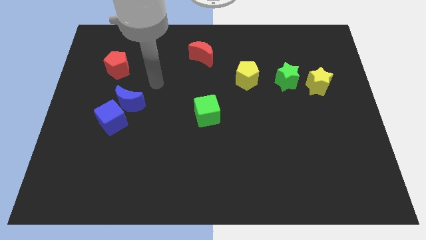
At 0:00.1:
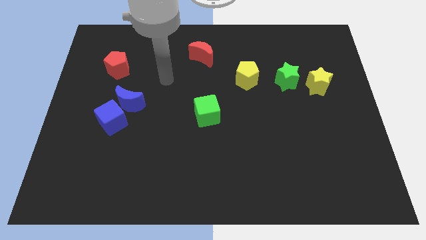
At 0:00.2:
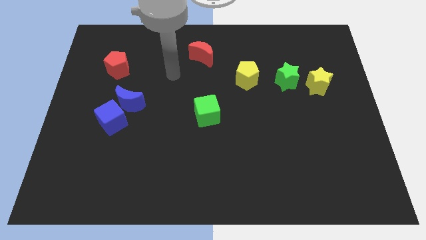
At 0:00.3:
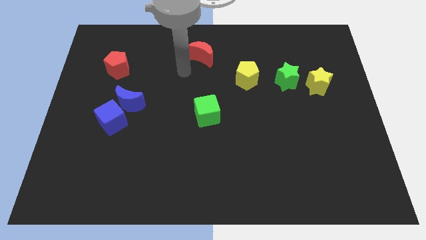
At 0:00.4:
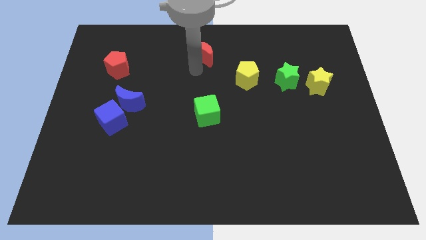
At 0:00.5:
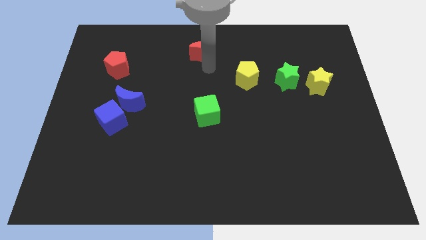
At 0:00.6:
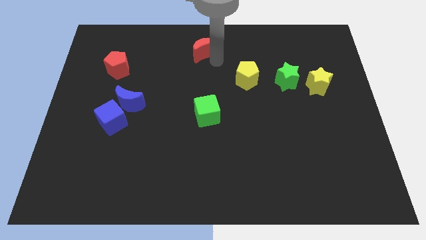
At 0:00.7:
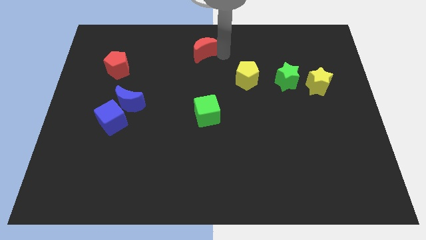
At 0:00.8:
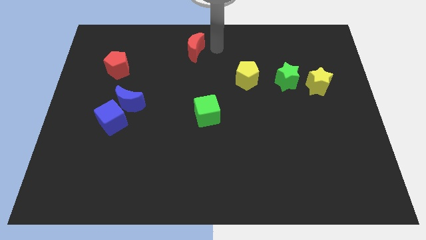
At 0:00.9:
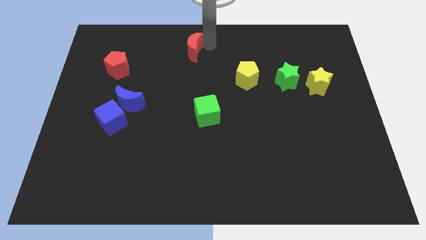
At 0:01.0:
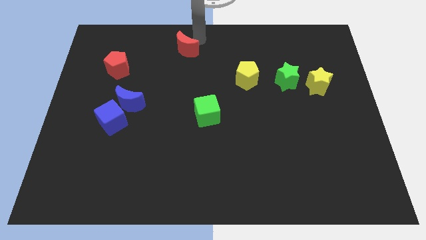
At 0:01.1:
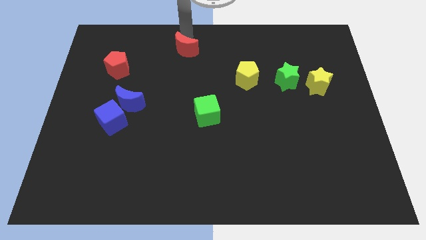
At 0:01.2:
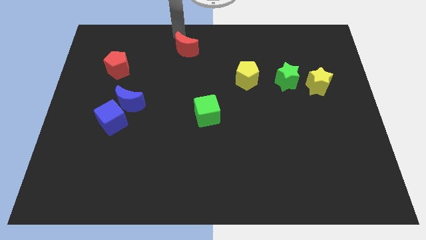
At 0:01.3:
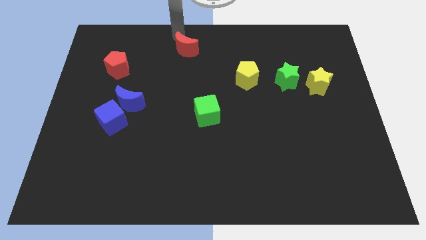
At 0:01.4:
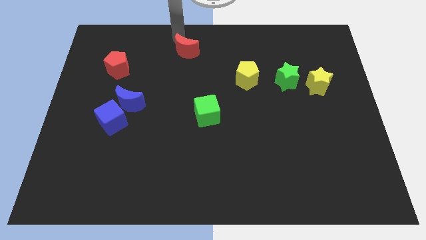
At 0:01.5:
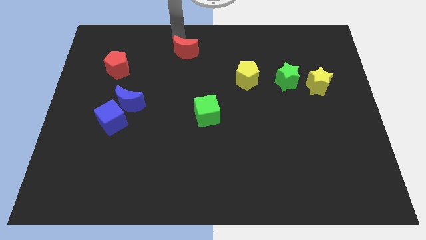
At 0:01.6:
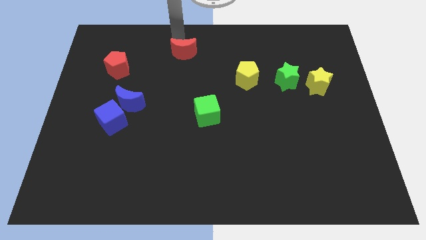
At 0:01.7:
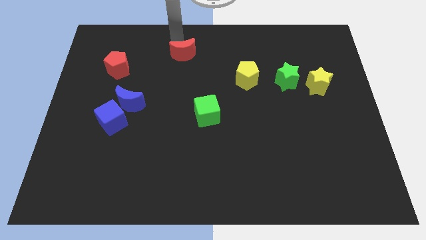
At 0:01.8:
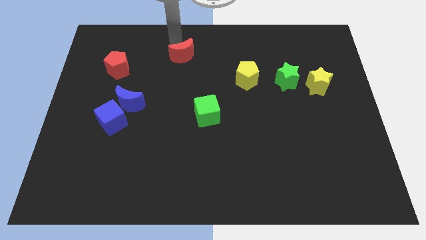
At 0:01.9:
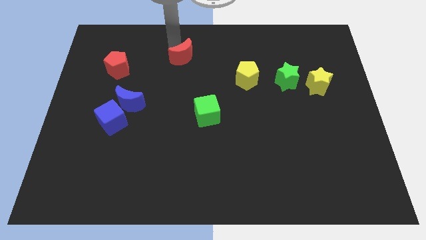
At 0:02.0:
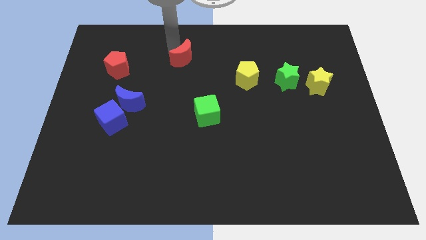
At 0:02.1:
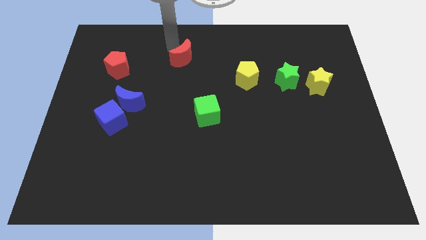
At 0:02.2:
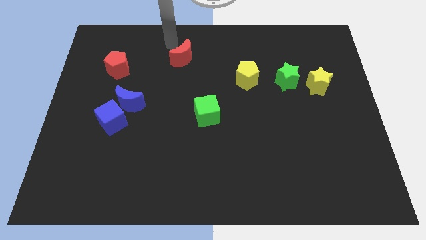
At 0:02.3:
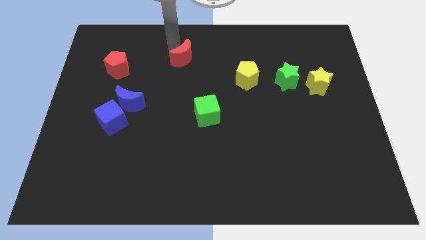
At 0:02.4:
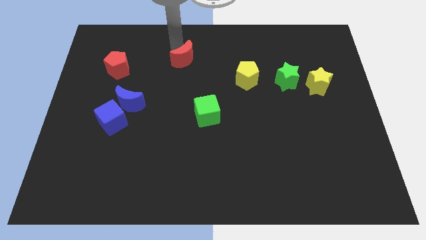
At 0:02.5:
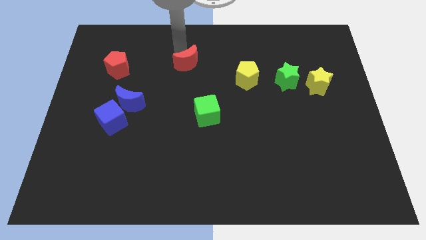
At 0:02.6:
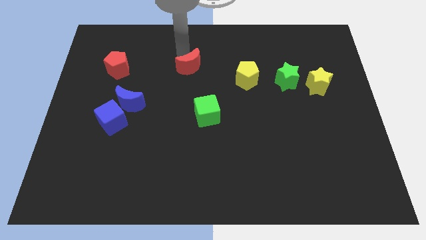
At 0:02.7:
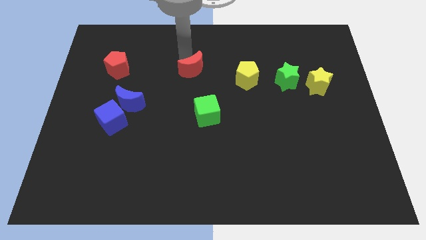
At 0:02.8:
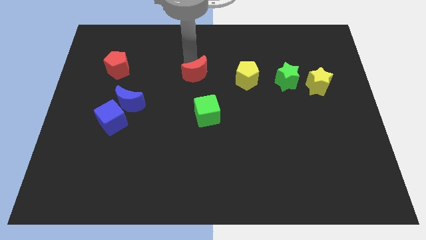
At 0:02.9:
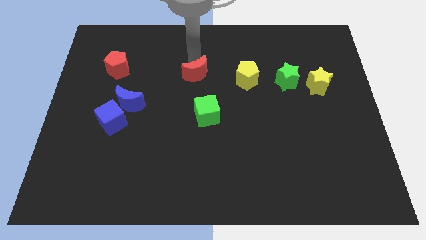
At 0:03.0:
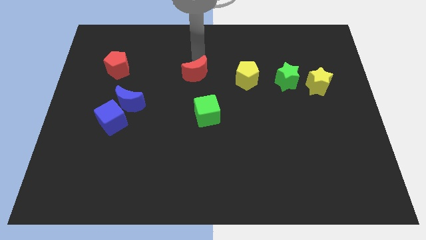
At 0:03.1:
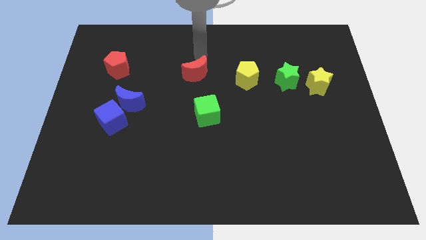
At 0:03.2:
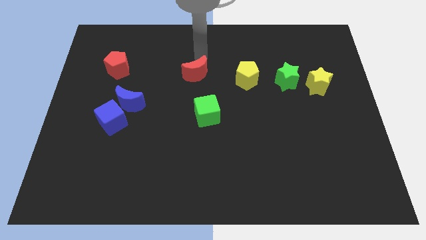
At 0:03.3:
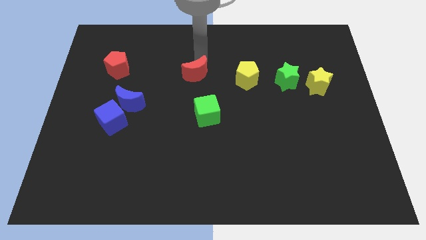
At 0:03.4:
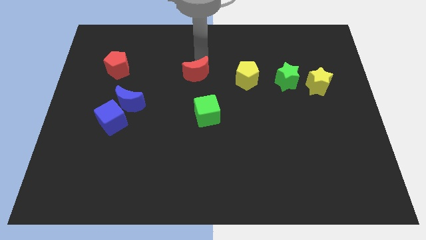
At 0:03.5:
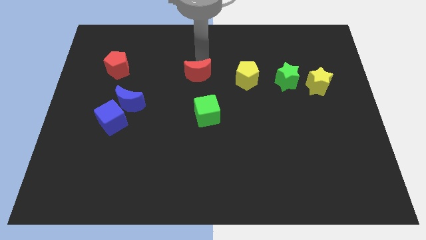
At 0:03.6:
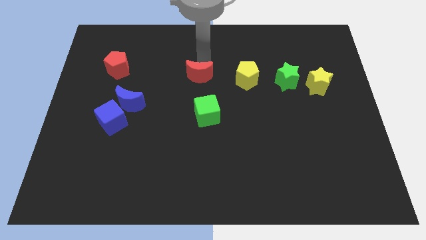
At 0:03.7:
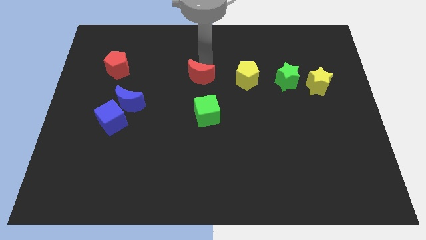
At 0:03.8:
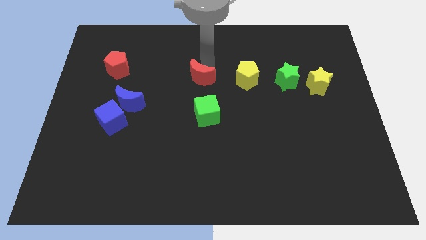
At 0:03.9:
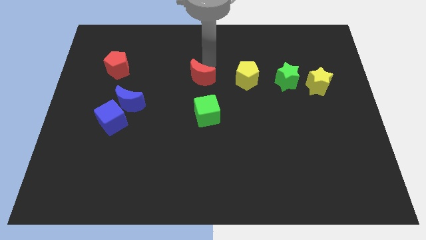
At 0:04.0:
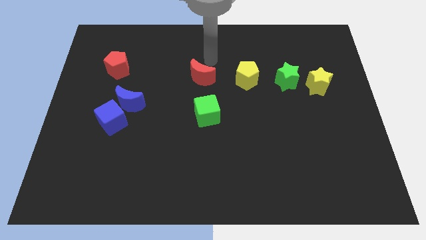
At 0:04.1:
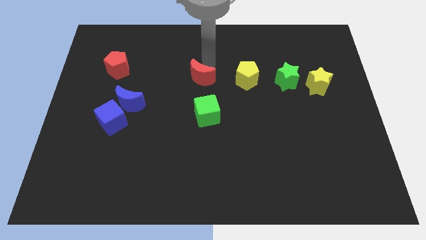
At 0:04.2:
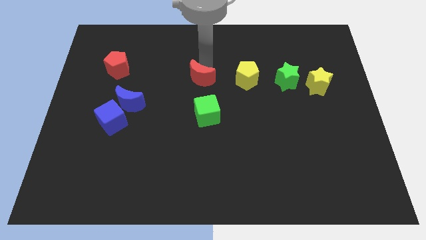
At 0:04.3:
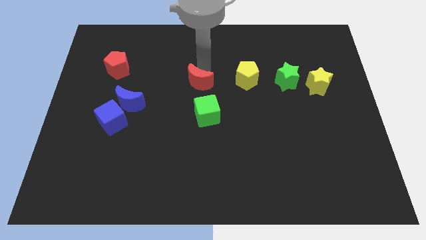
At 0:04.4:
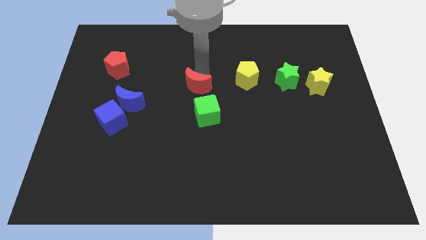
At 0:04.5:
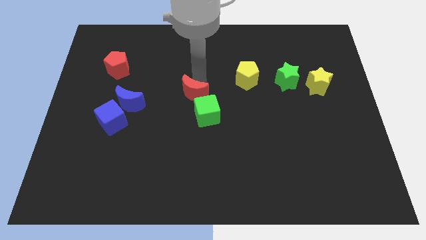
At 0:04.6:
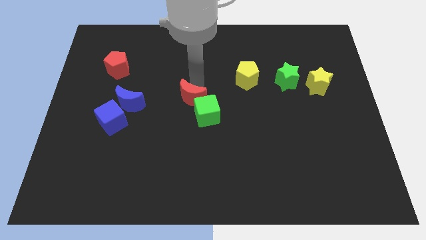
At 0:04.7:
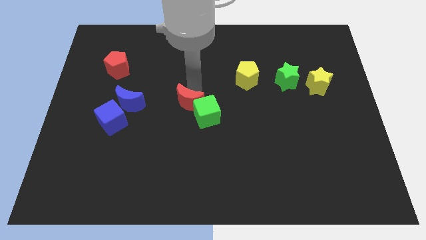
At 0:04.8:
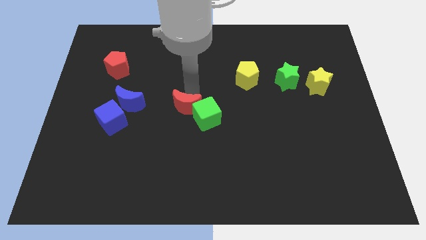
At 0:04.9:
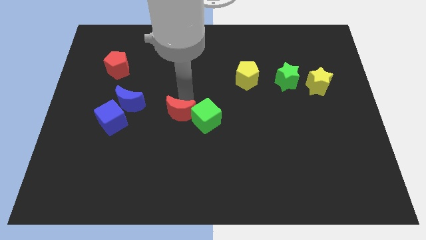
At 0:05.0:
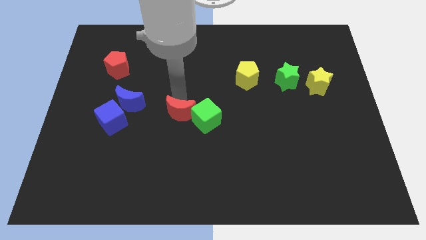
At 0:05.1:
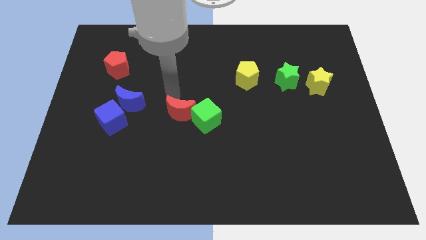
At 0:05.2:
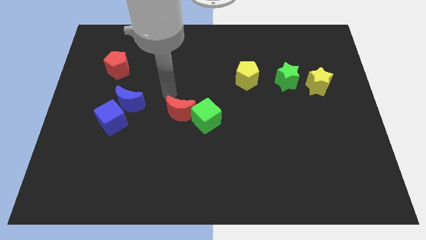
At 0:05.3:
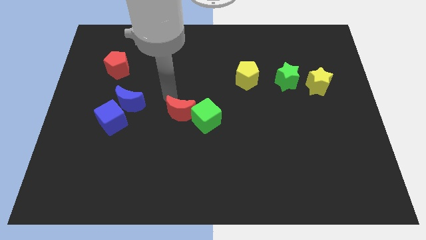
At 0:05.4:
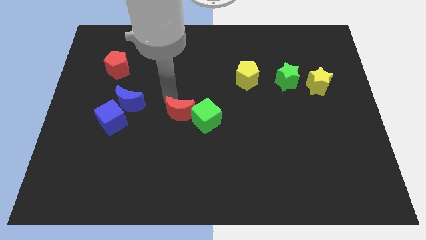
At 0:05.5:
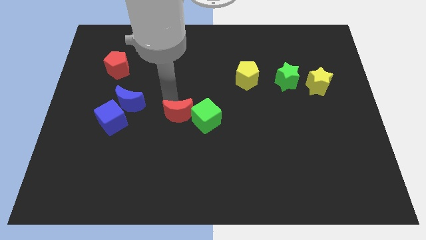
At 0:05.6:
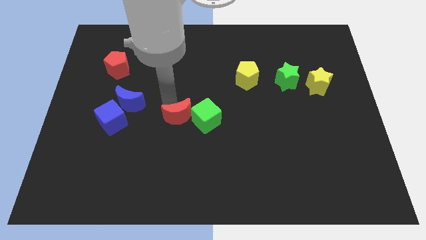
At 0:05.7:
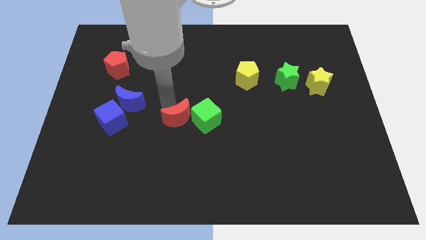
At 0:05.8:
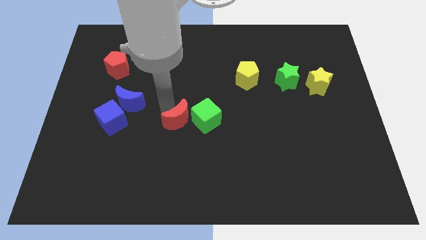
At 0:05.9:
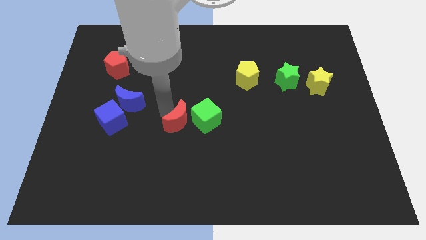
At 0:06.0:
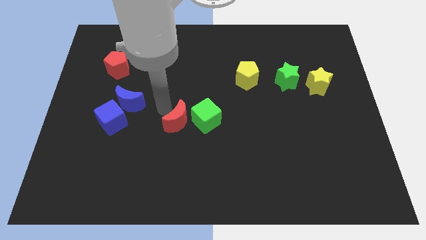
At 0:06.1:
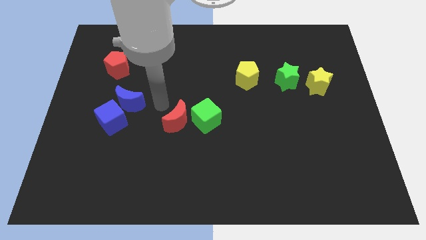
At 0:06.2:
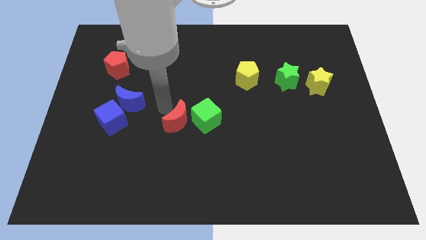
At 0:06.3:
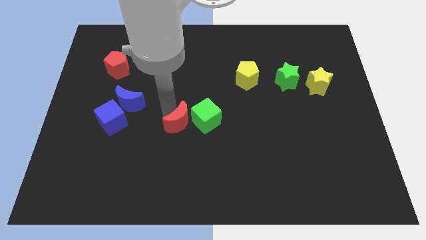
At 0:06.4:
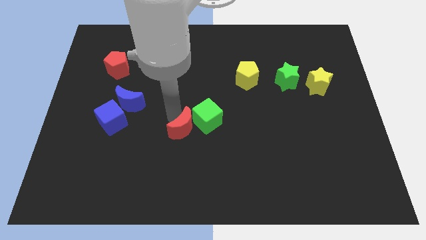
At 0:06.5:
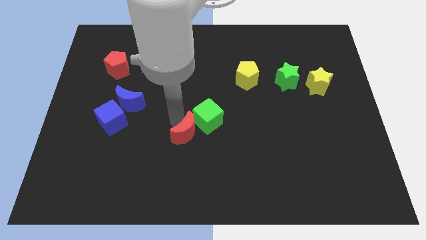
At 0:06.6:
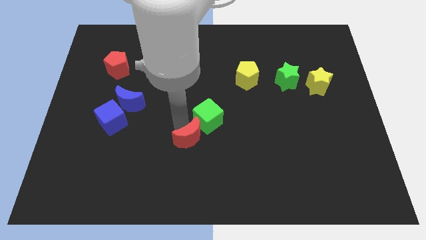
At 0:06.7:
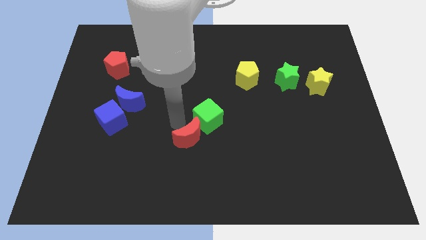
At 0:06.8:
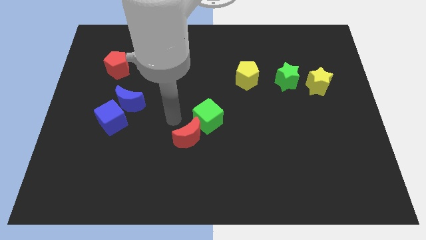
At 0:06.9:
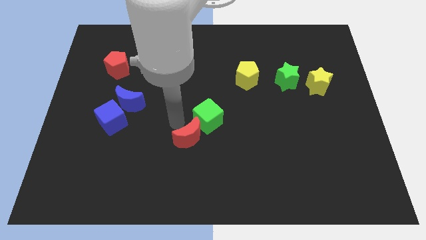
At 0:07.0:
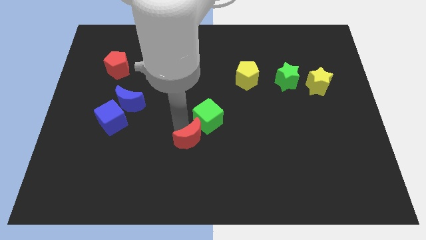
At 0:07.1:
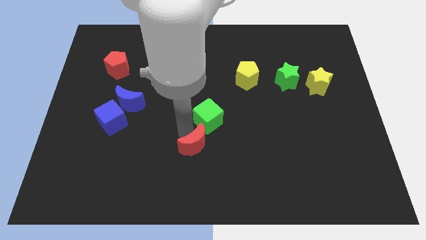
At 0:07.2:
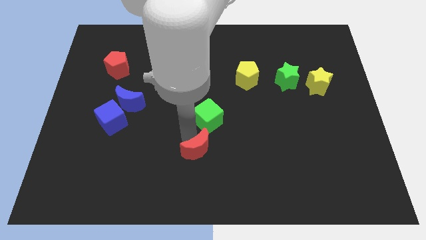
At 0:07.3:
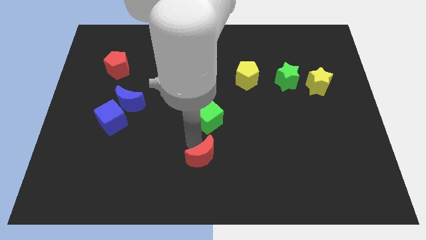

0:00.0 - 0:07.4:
put the red moon to the bottom side
